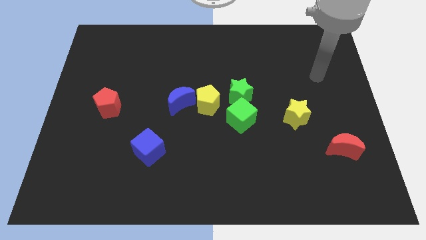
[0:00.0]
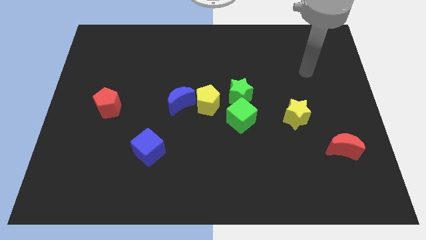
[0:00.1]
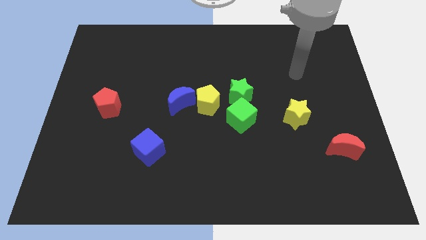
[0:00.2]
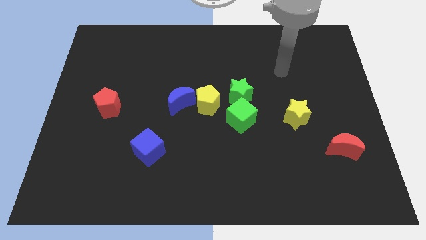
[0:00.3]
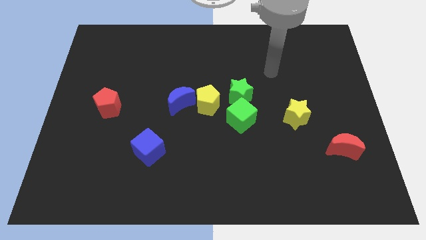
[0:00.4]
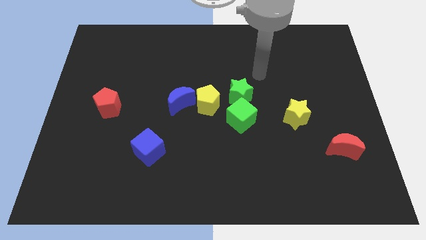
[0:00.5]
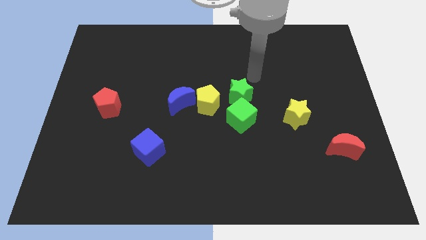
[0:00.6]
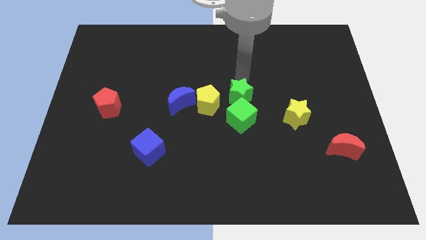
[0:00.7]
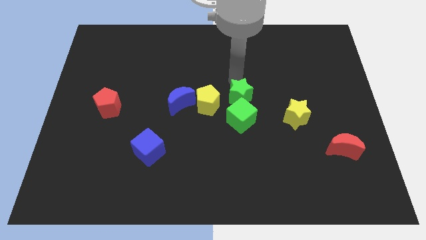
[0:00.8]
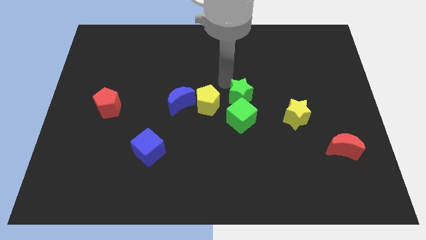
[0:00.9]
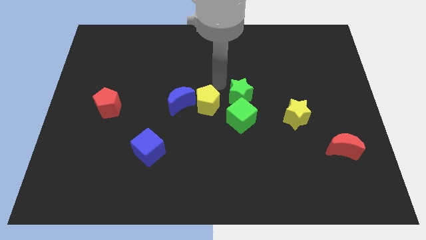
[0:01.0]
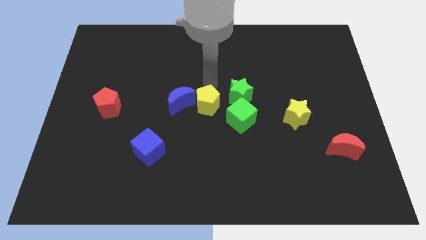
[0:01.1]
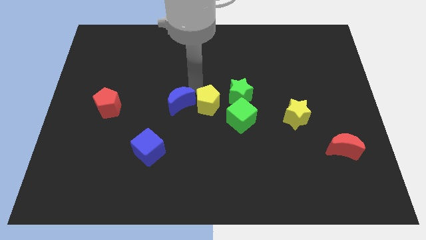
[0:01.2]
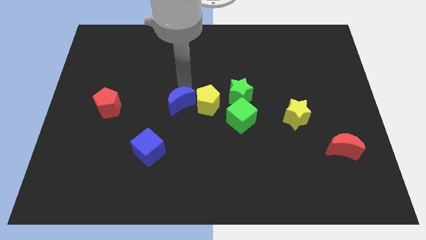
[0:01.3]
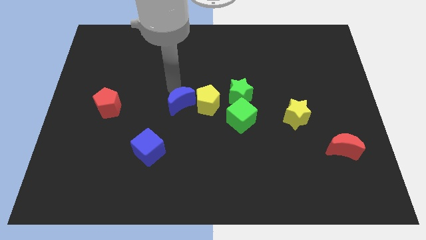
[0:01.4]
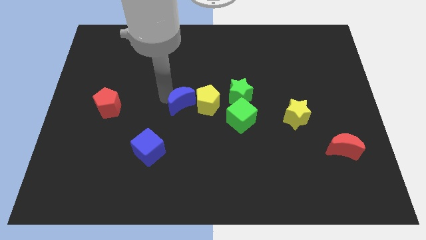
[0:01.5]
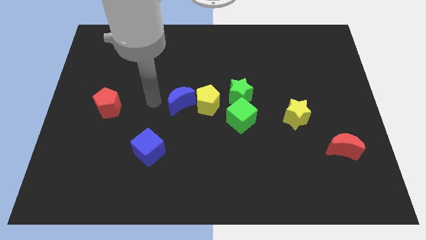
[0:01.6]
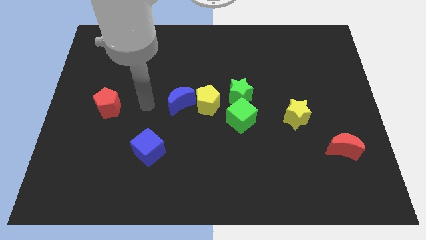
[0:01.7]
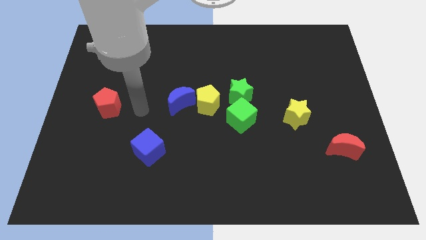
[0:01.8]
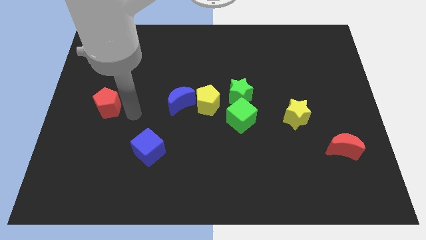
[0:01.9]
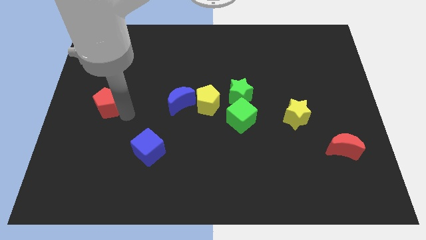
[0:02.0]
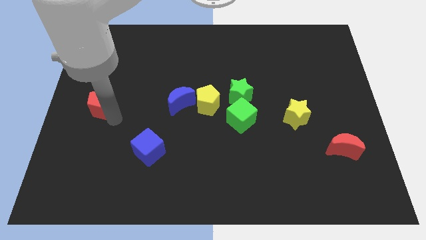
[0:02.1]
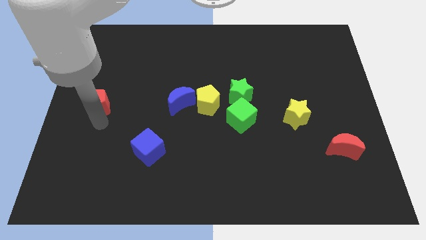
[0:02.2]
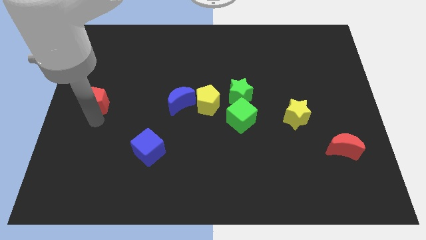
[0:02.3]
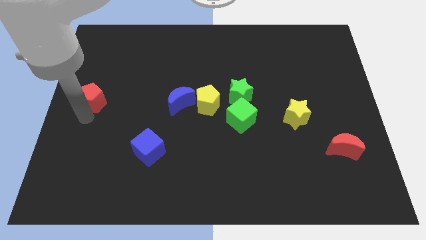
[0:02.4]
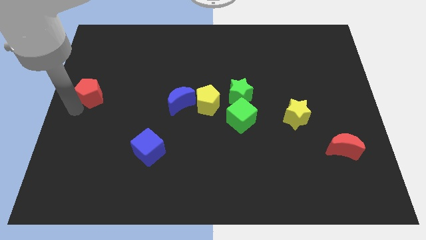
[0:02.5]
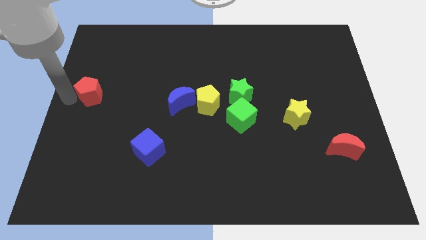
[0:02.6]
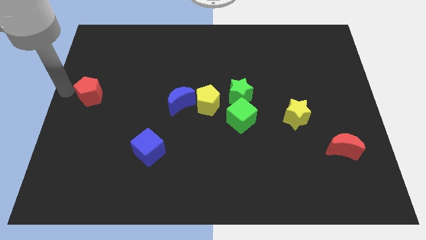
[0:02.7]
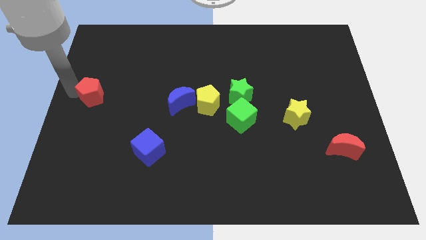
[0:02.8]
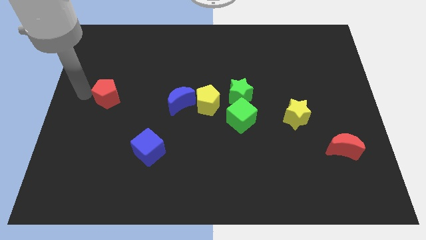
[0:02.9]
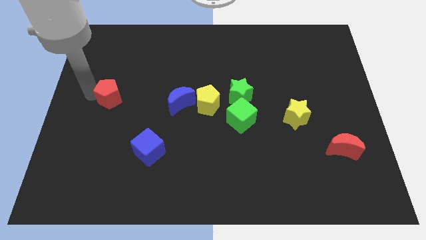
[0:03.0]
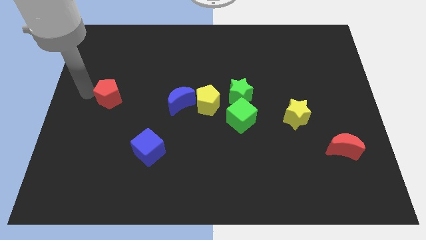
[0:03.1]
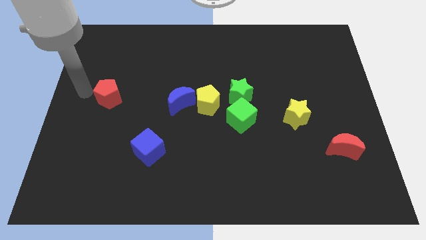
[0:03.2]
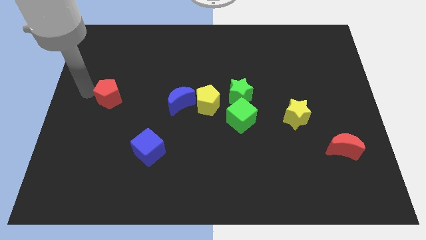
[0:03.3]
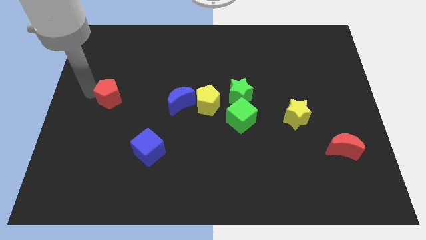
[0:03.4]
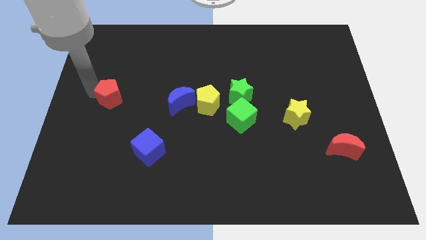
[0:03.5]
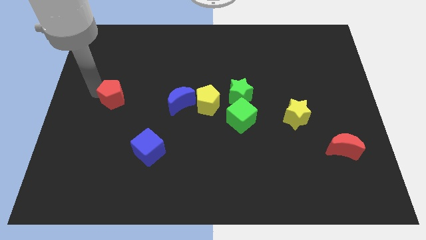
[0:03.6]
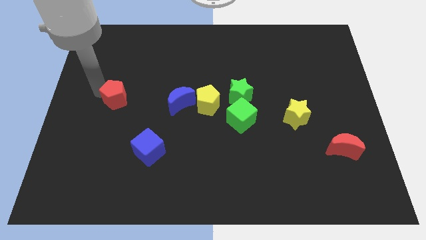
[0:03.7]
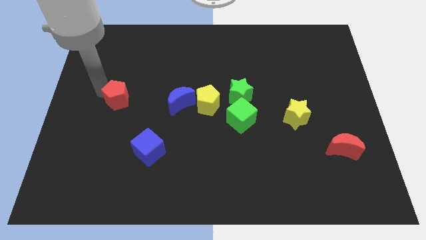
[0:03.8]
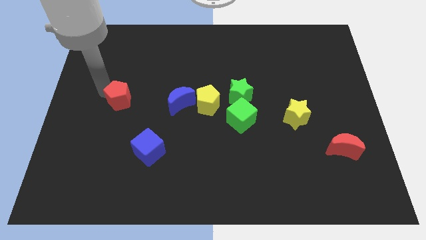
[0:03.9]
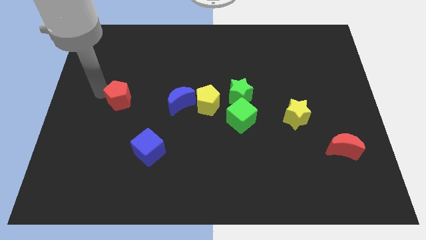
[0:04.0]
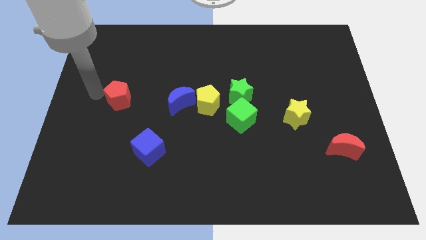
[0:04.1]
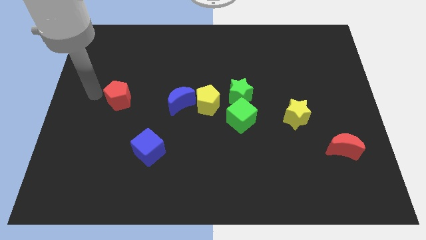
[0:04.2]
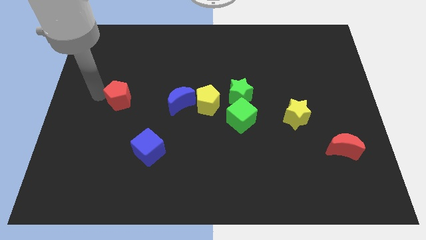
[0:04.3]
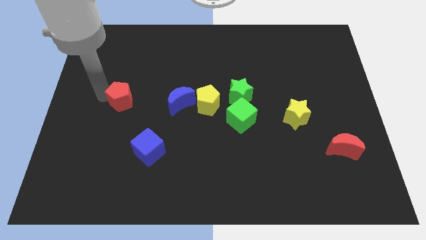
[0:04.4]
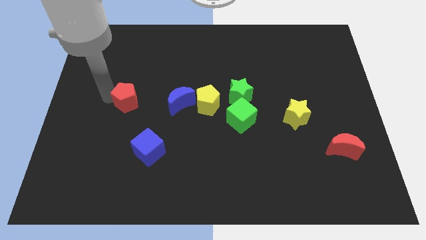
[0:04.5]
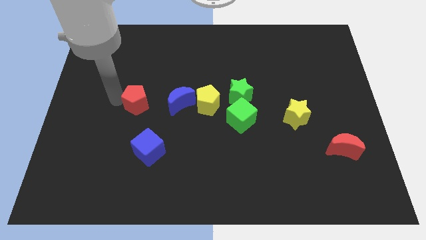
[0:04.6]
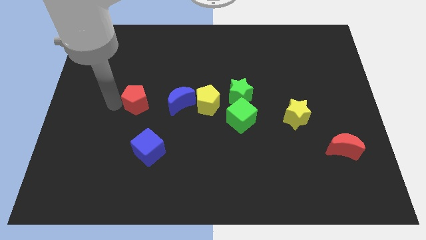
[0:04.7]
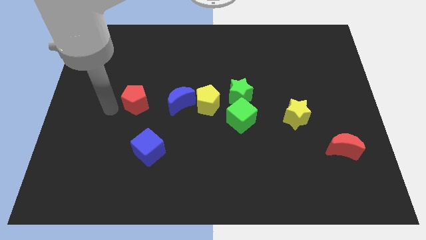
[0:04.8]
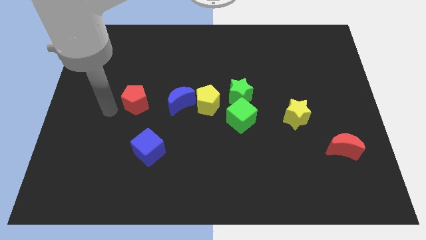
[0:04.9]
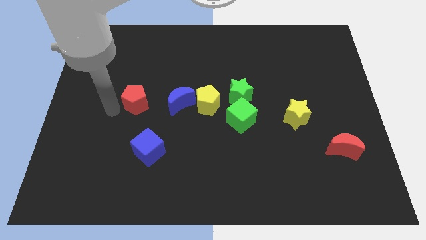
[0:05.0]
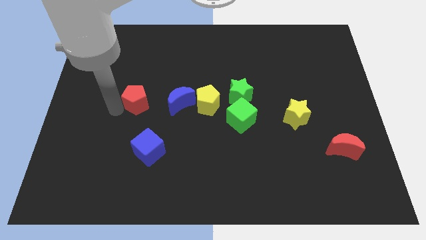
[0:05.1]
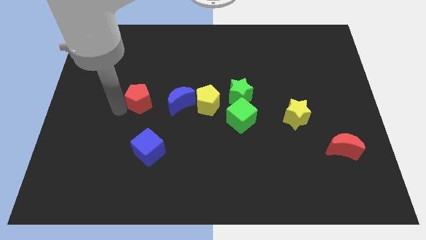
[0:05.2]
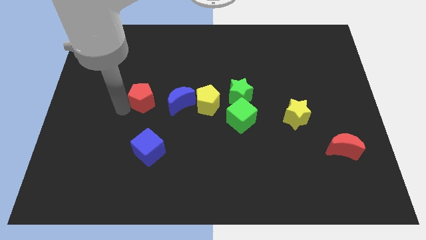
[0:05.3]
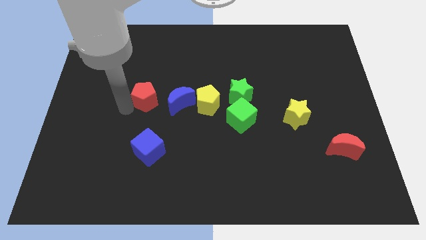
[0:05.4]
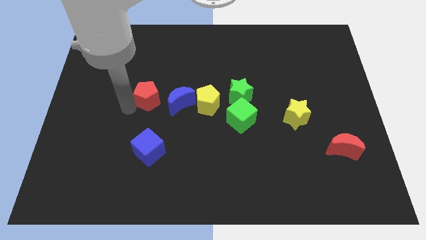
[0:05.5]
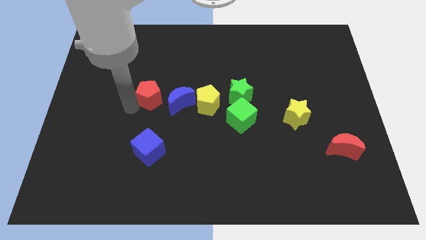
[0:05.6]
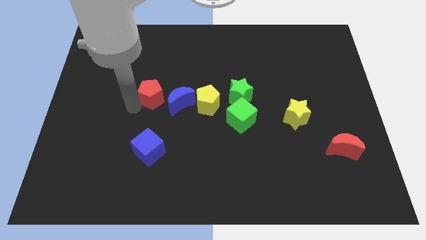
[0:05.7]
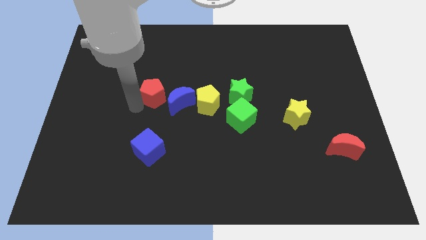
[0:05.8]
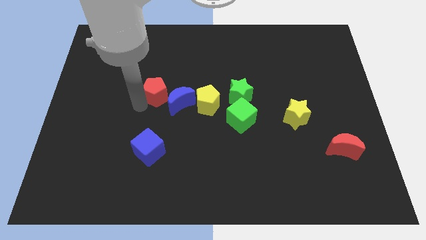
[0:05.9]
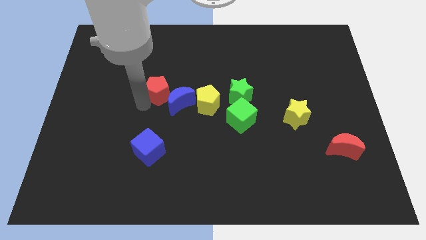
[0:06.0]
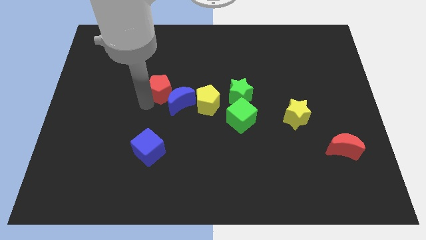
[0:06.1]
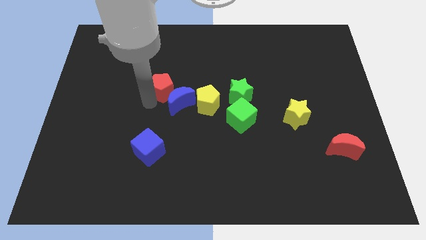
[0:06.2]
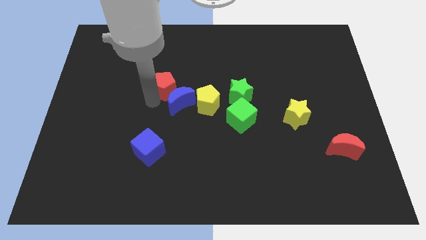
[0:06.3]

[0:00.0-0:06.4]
push the red pentagon to the top left of the yellow pentagon

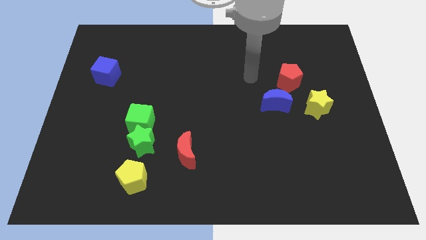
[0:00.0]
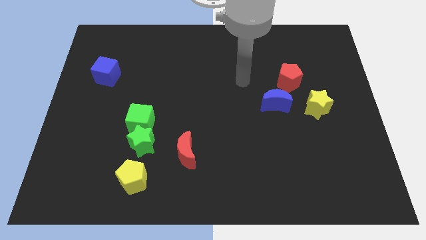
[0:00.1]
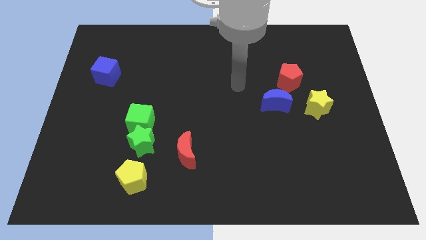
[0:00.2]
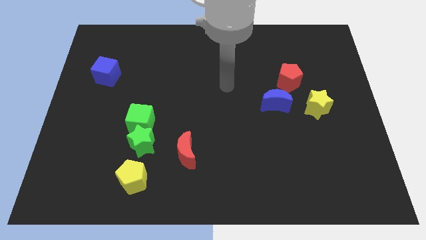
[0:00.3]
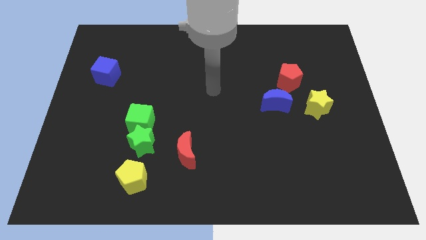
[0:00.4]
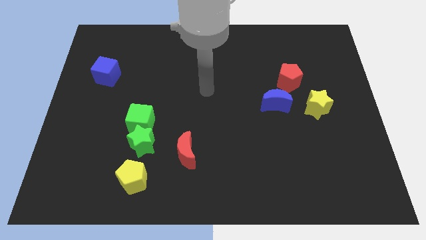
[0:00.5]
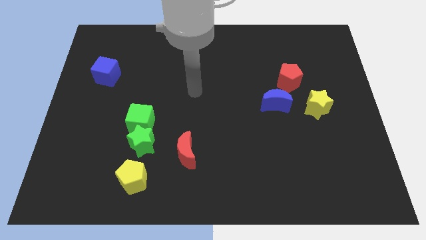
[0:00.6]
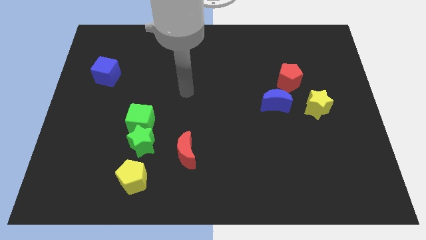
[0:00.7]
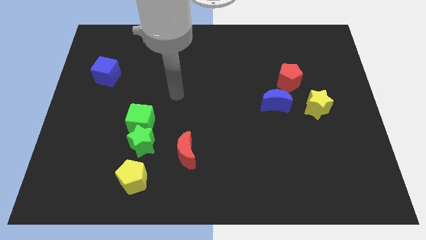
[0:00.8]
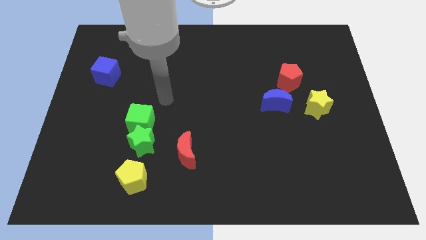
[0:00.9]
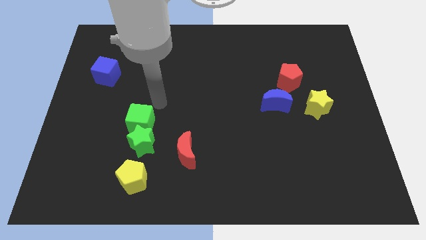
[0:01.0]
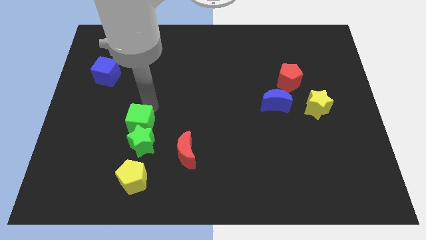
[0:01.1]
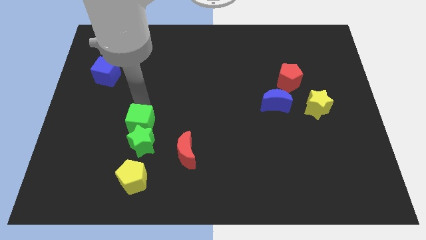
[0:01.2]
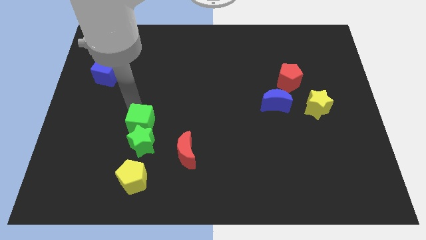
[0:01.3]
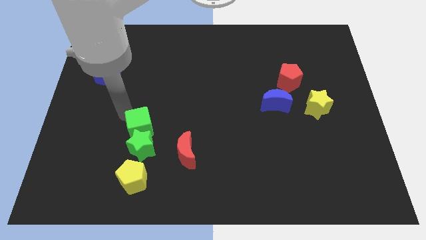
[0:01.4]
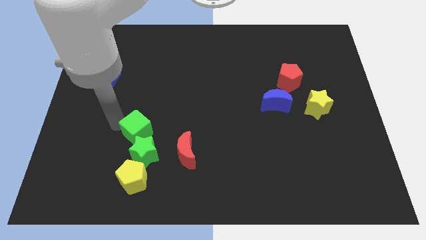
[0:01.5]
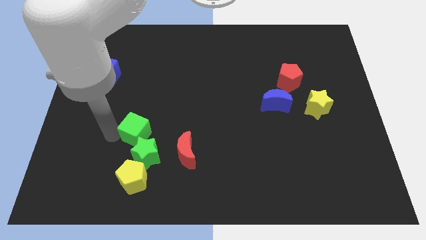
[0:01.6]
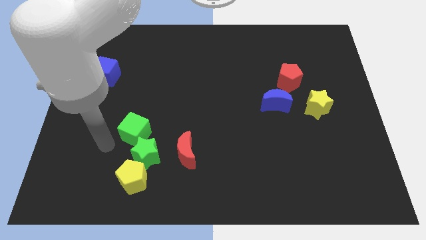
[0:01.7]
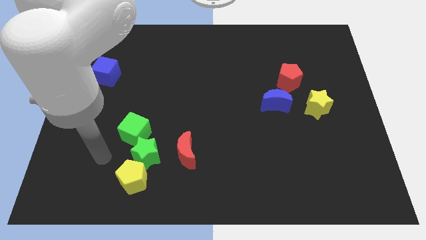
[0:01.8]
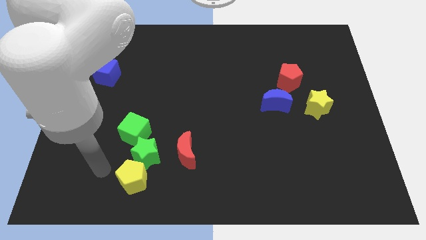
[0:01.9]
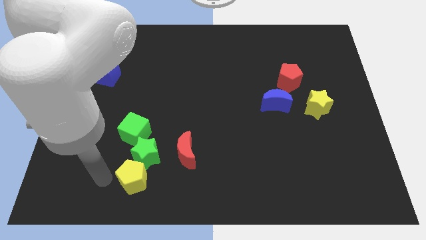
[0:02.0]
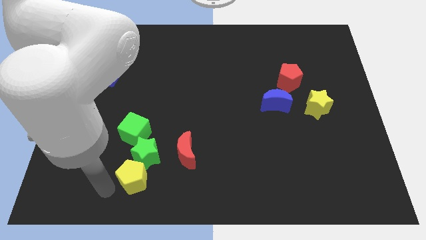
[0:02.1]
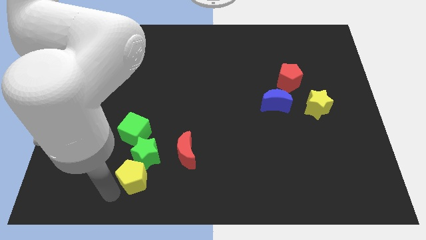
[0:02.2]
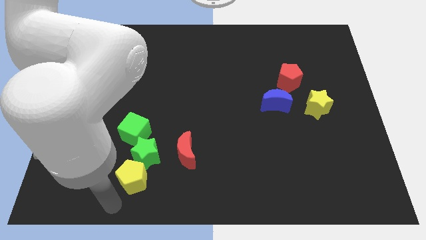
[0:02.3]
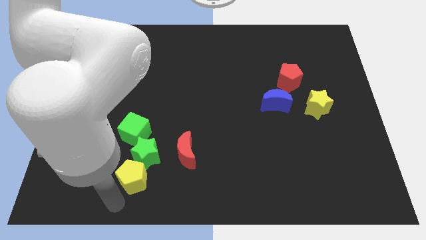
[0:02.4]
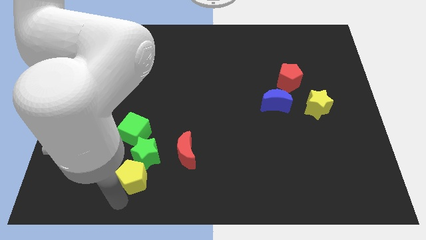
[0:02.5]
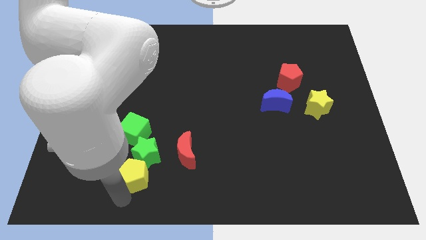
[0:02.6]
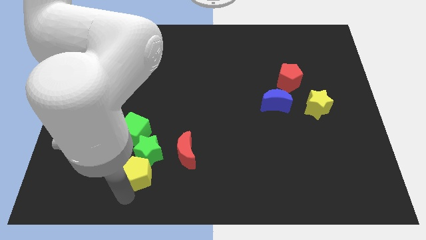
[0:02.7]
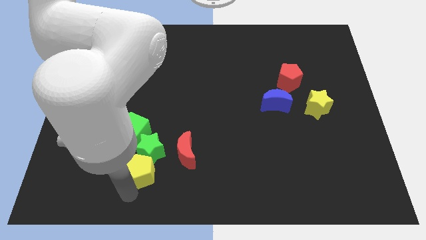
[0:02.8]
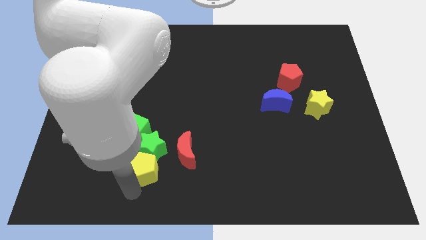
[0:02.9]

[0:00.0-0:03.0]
put the yellow pentagon to the bottom right of the green cube
